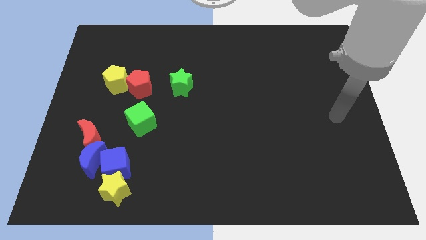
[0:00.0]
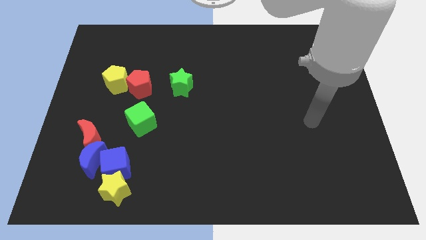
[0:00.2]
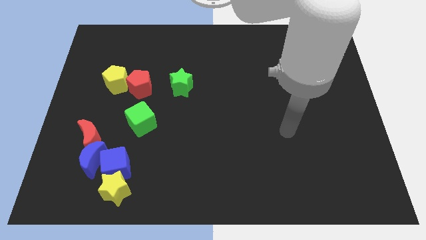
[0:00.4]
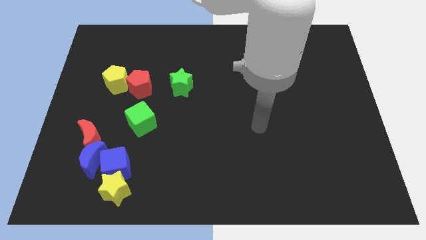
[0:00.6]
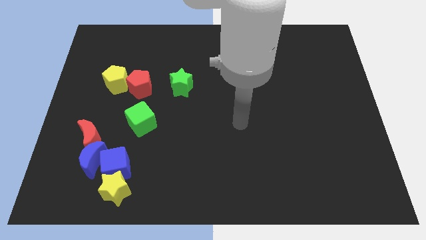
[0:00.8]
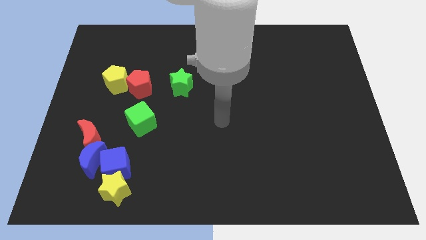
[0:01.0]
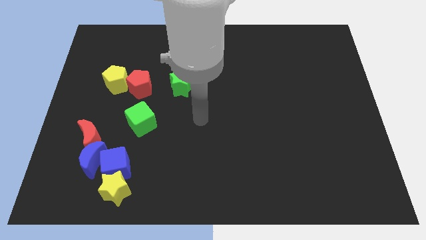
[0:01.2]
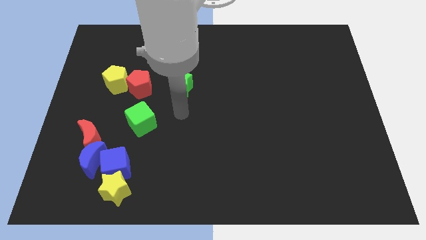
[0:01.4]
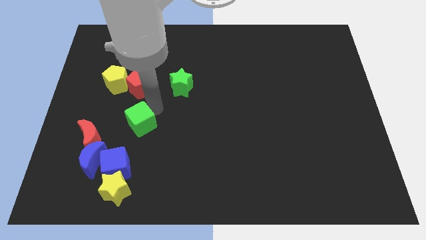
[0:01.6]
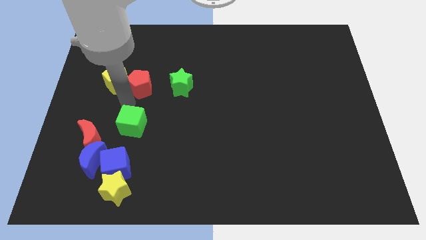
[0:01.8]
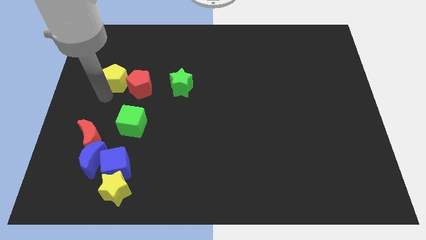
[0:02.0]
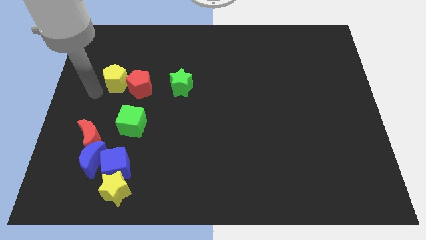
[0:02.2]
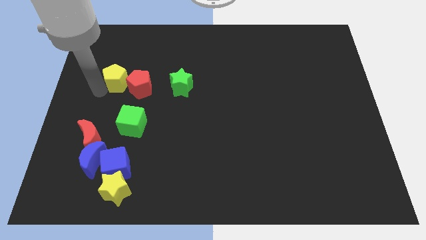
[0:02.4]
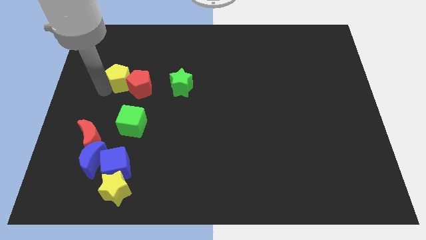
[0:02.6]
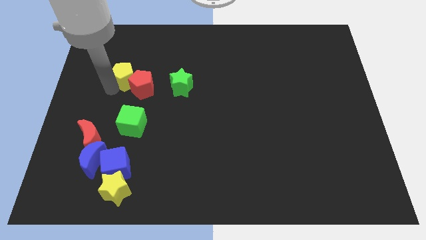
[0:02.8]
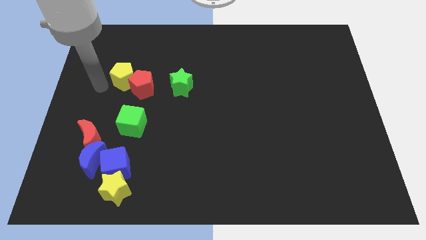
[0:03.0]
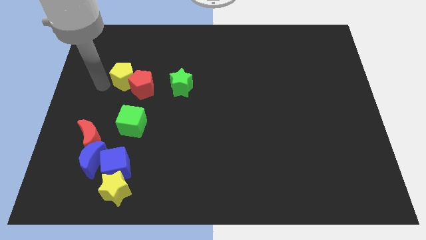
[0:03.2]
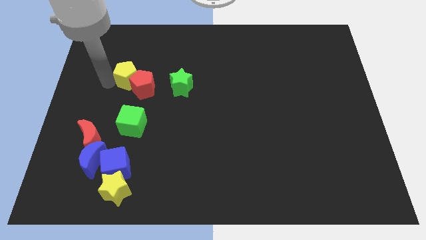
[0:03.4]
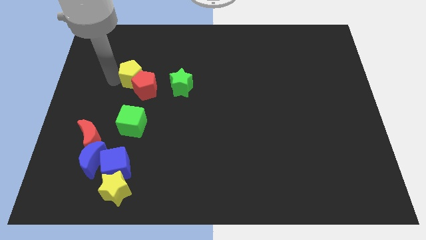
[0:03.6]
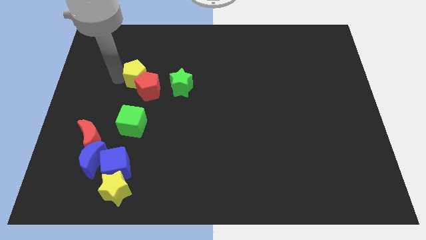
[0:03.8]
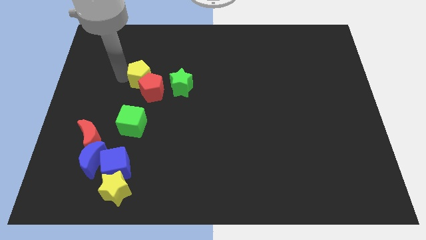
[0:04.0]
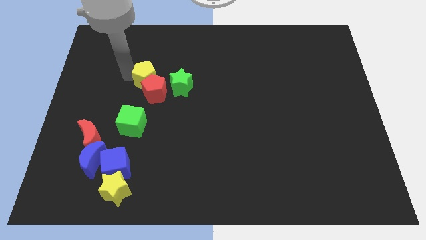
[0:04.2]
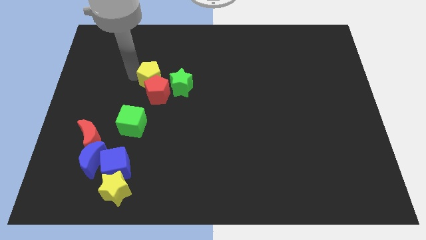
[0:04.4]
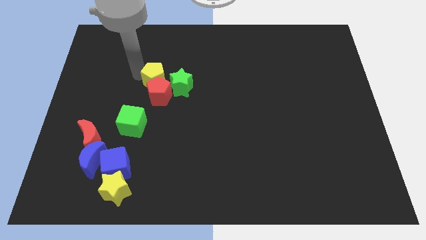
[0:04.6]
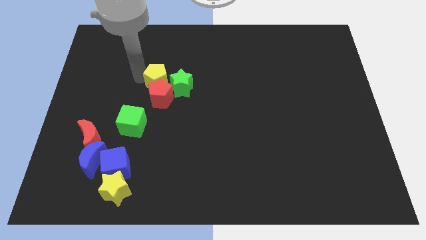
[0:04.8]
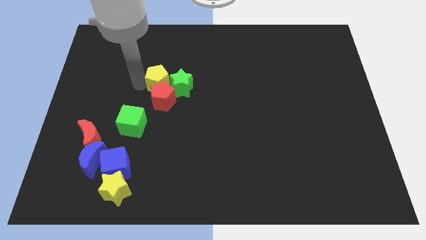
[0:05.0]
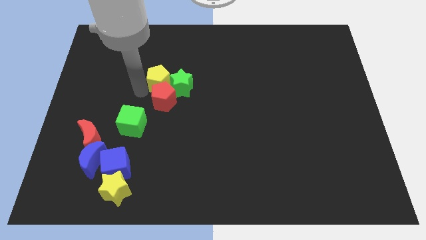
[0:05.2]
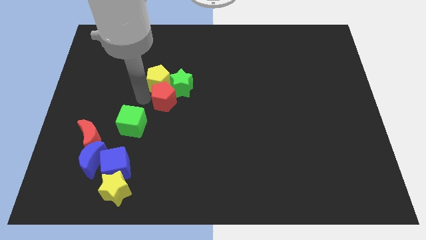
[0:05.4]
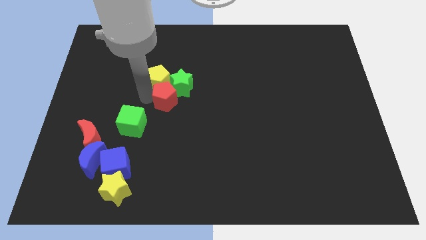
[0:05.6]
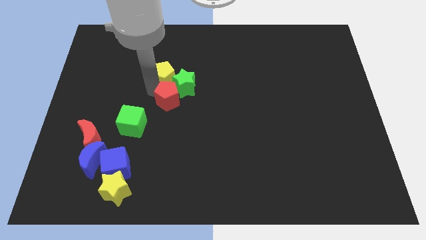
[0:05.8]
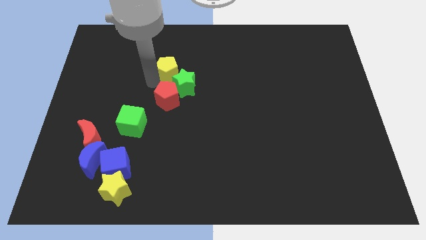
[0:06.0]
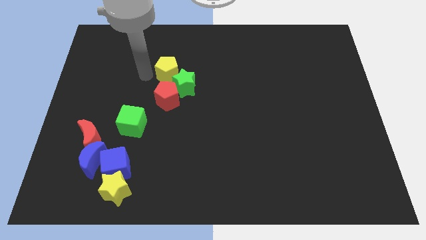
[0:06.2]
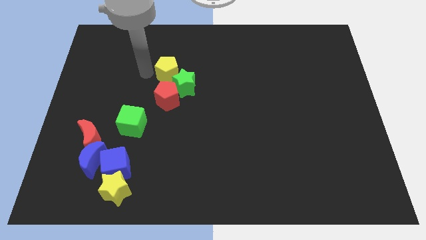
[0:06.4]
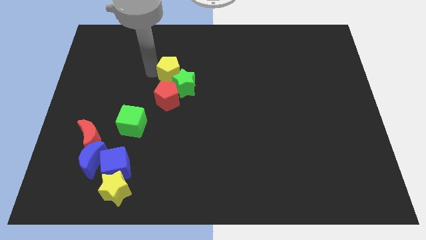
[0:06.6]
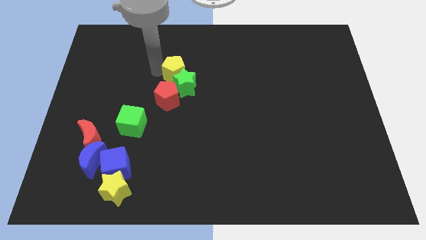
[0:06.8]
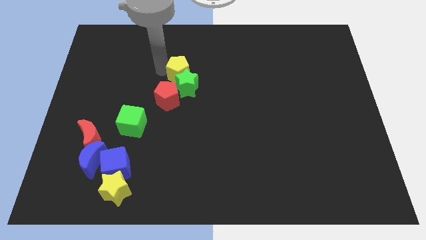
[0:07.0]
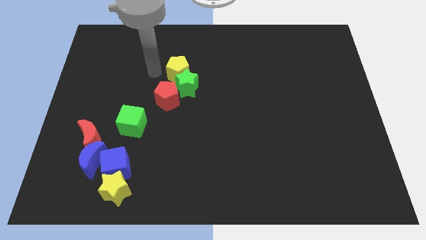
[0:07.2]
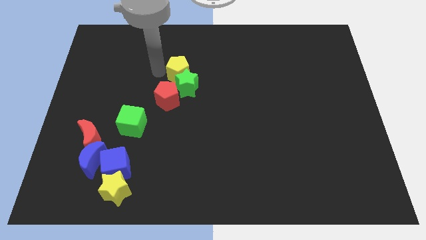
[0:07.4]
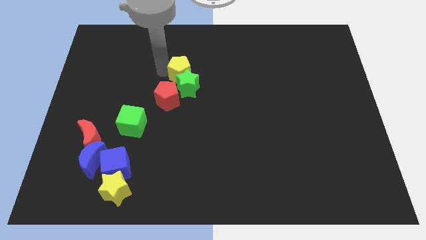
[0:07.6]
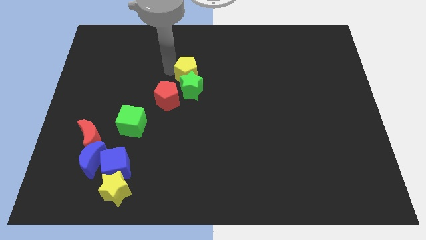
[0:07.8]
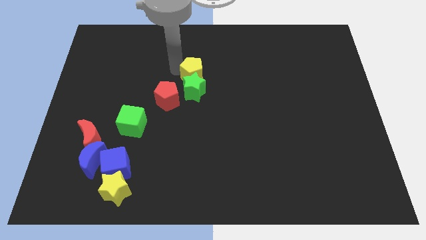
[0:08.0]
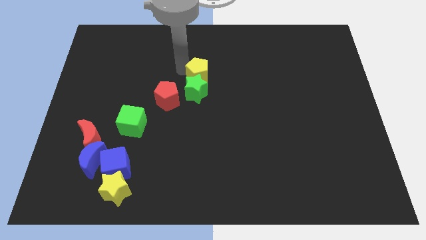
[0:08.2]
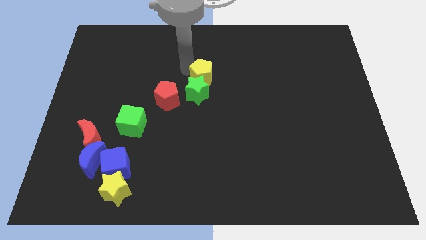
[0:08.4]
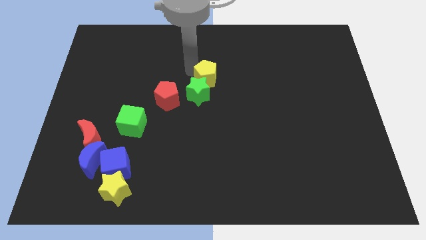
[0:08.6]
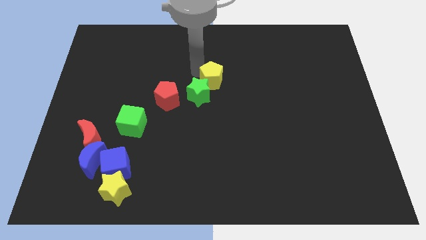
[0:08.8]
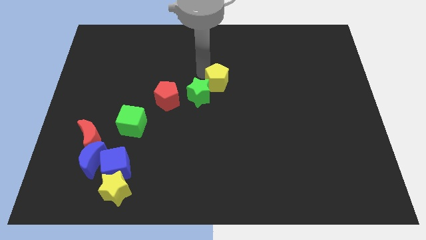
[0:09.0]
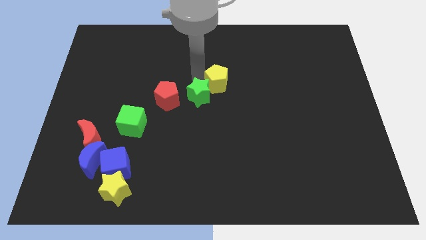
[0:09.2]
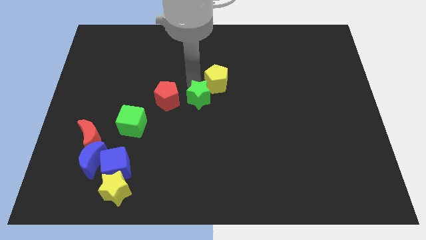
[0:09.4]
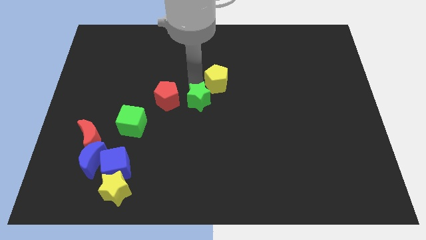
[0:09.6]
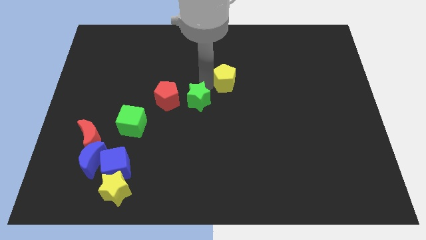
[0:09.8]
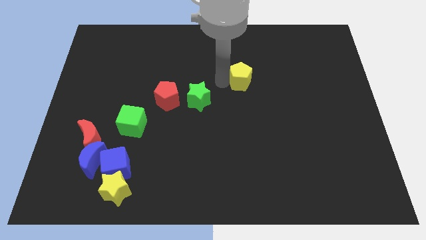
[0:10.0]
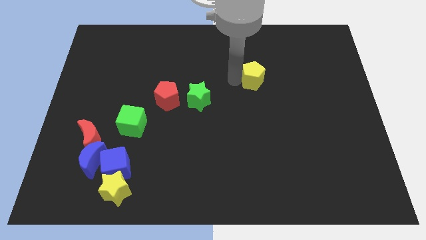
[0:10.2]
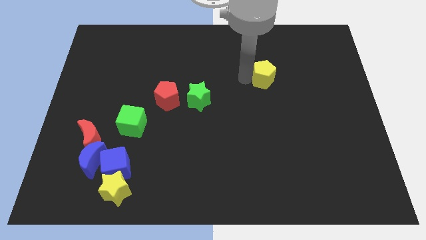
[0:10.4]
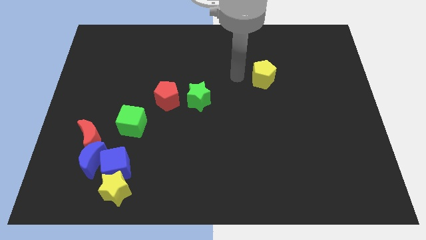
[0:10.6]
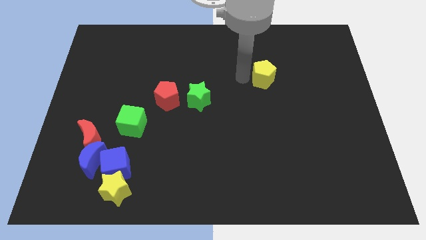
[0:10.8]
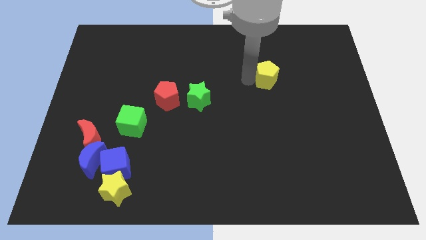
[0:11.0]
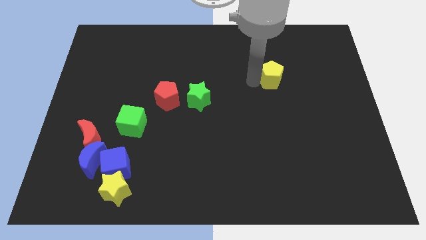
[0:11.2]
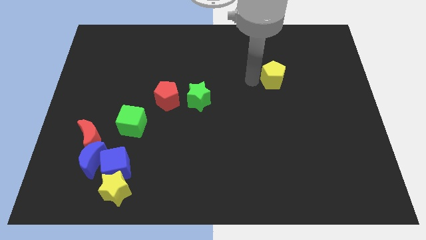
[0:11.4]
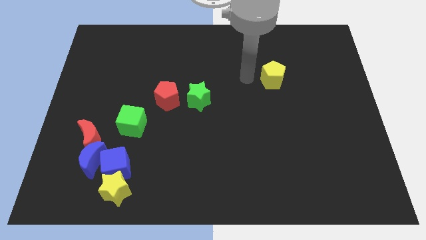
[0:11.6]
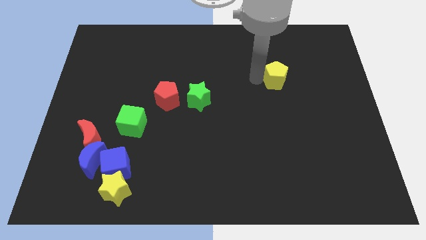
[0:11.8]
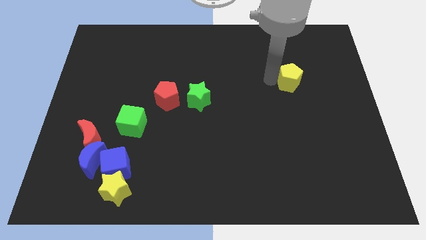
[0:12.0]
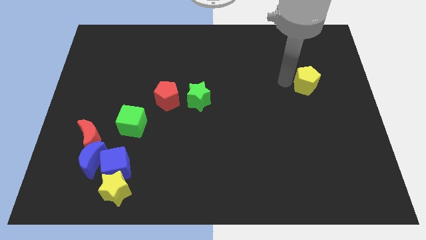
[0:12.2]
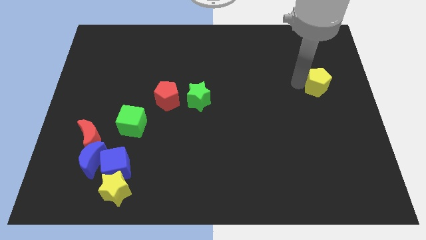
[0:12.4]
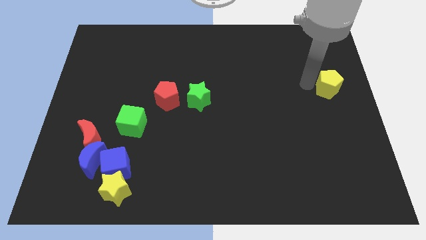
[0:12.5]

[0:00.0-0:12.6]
push the yellow pentagon to the right side of the board
